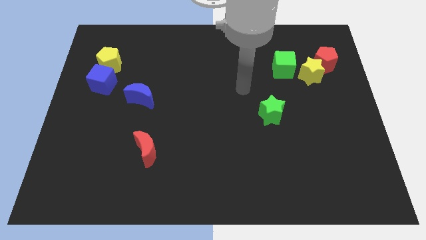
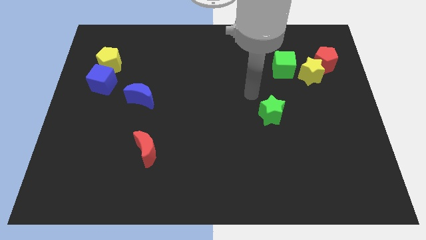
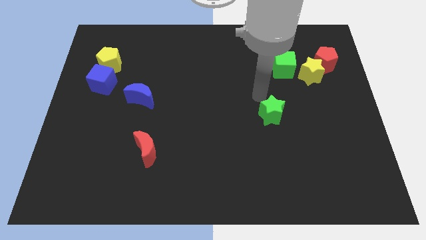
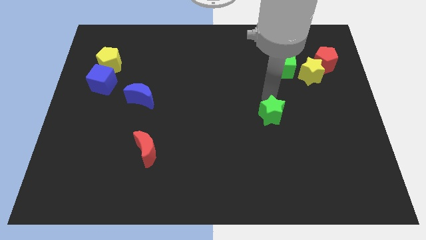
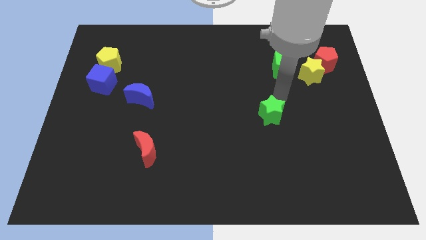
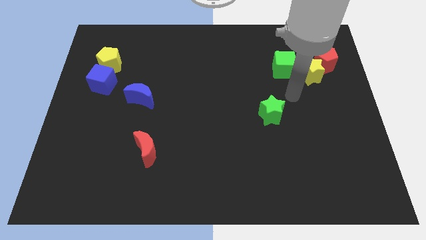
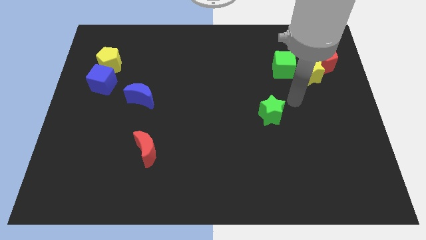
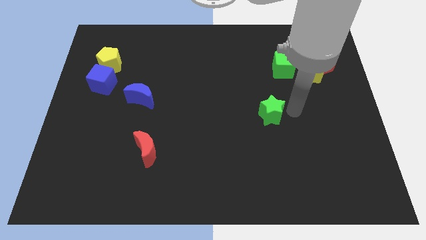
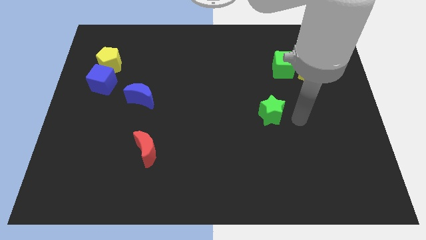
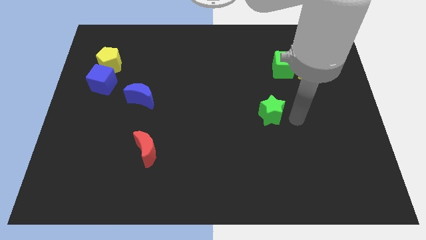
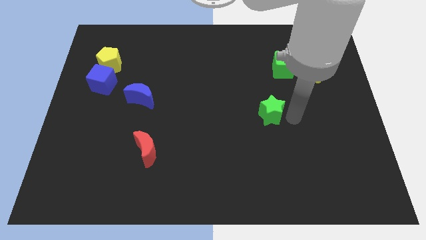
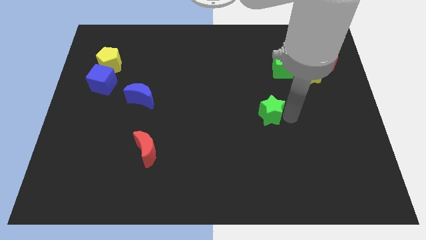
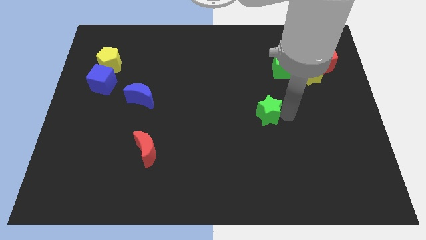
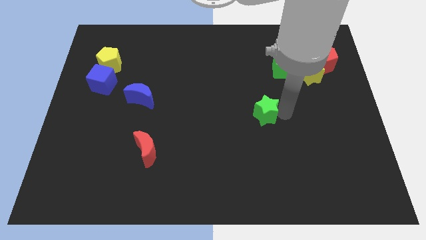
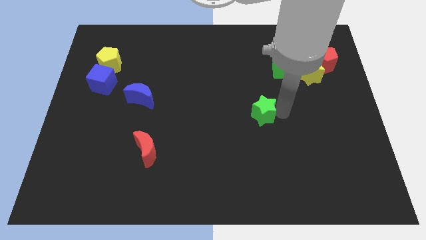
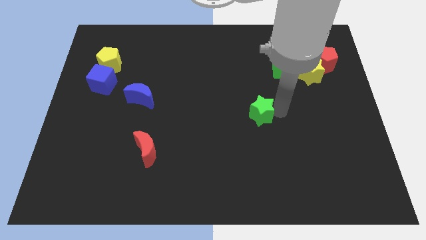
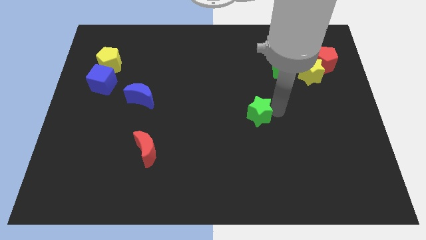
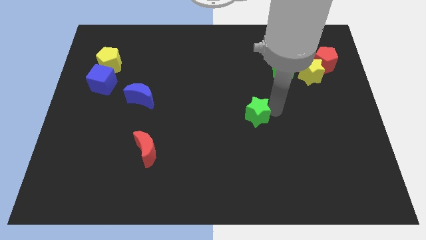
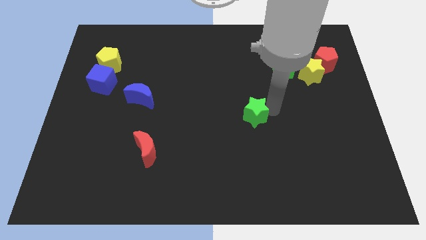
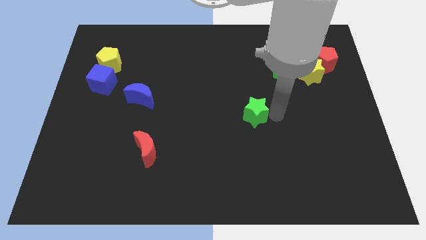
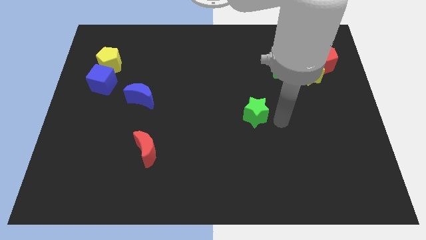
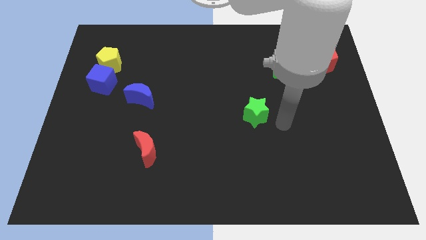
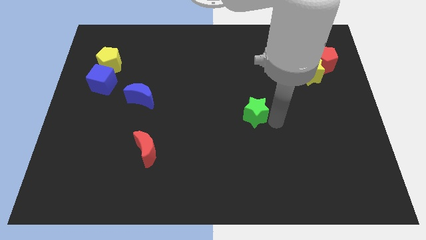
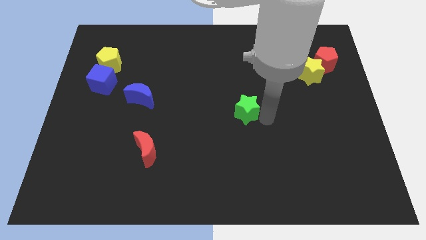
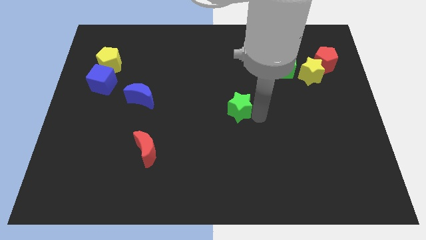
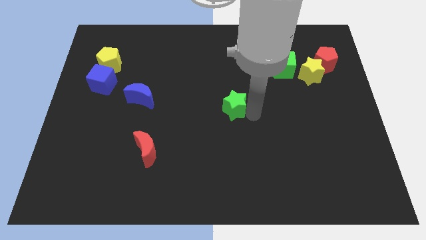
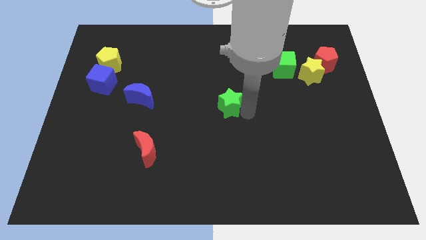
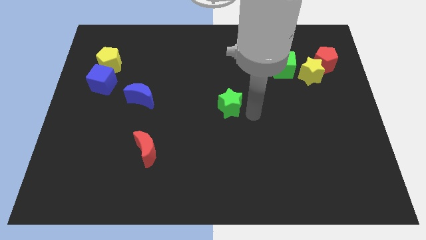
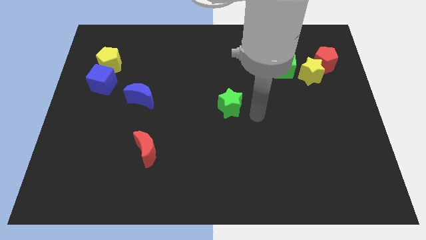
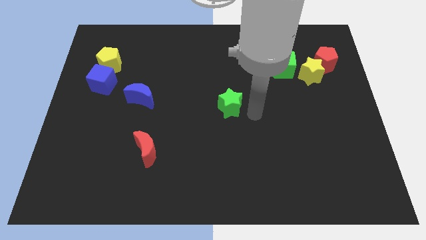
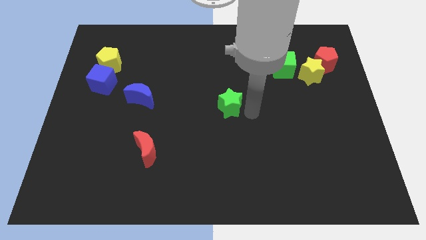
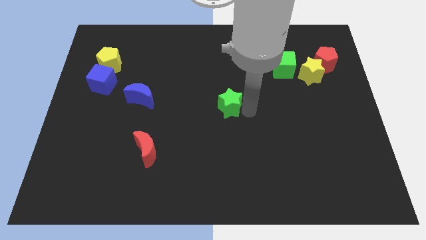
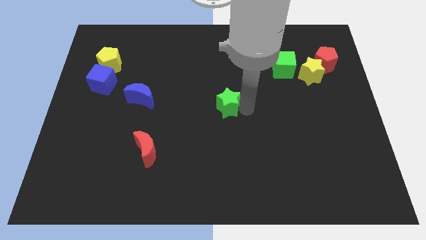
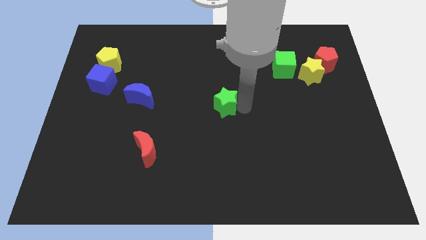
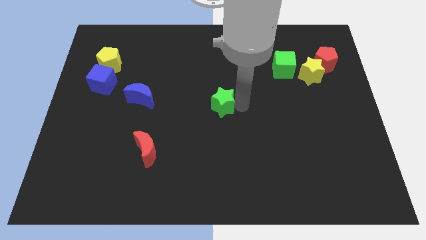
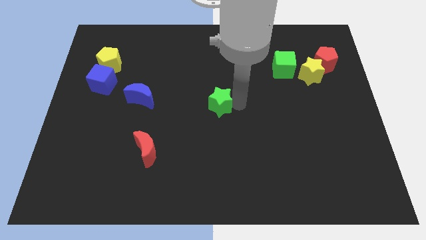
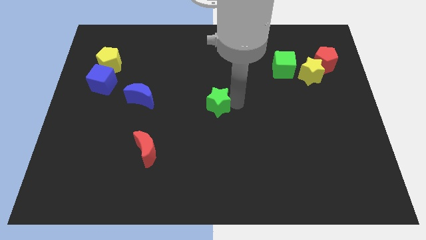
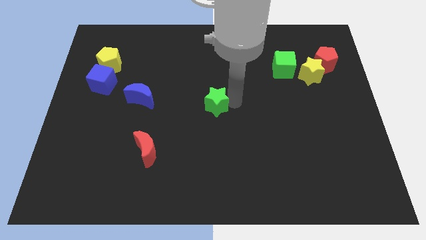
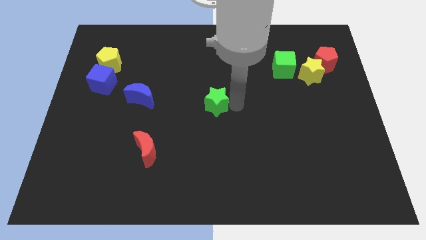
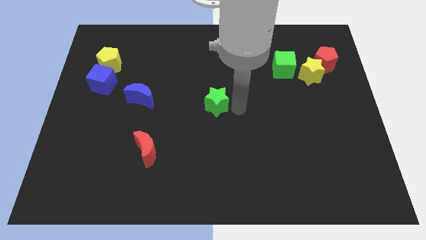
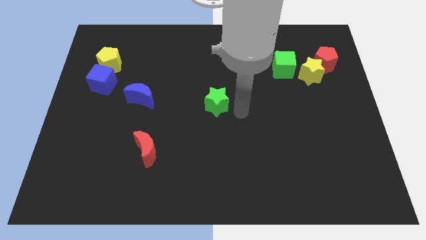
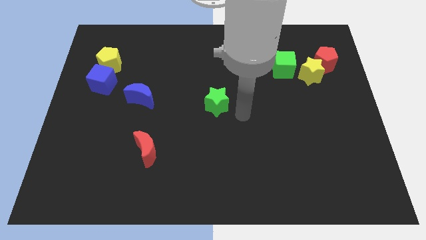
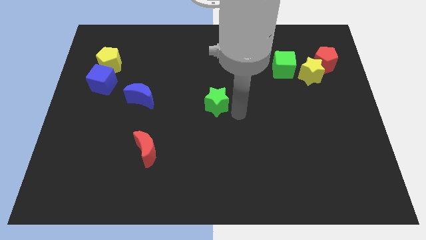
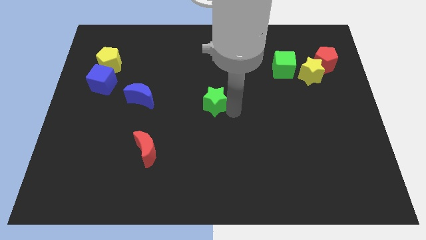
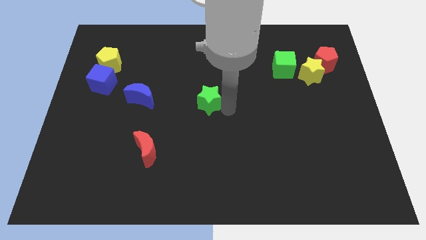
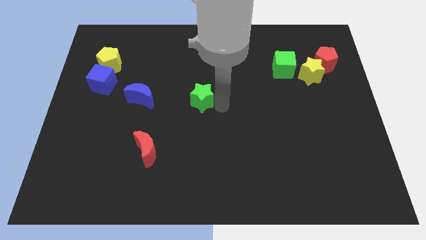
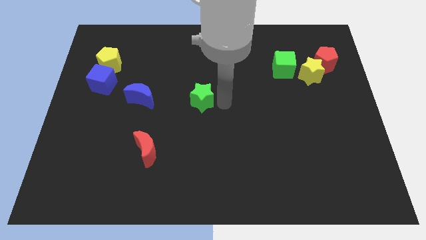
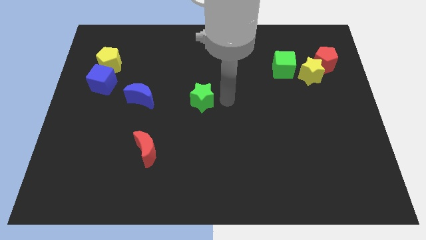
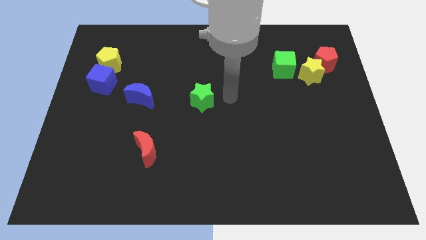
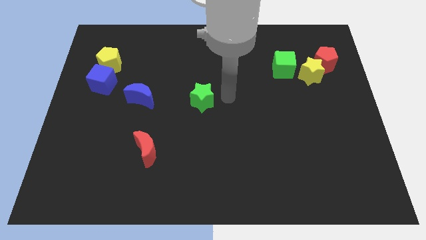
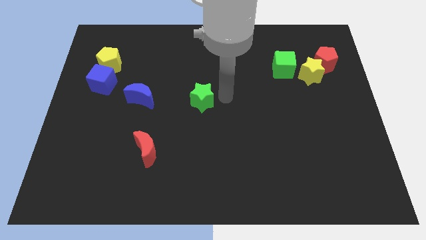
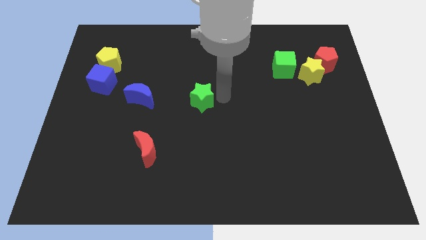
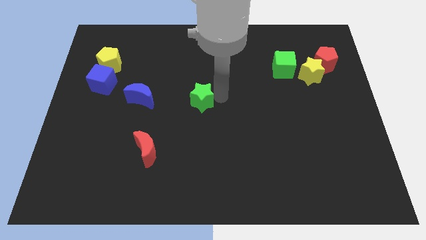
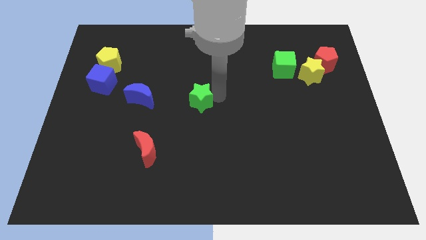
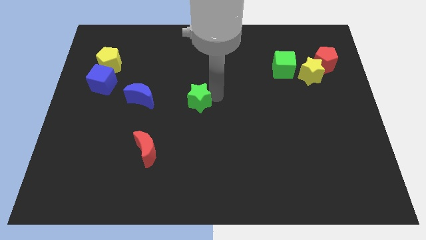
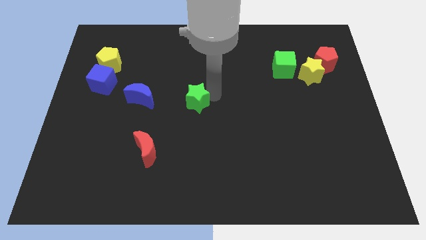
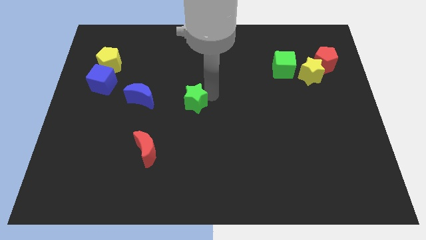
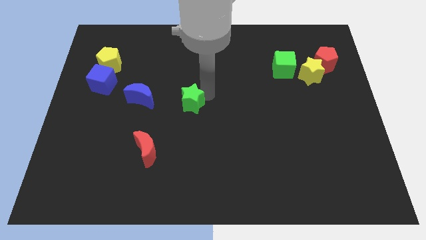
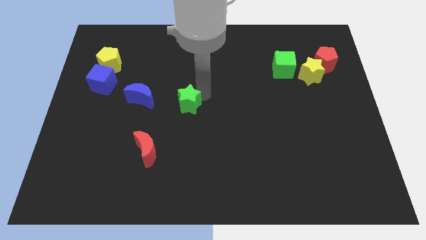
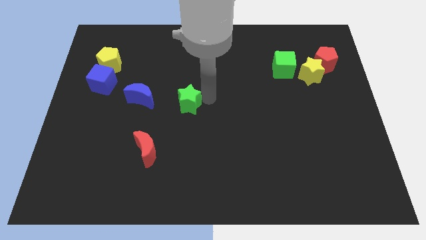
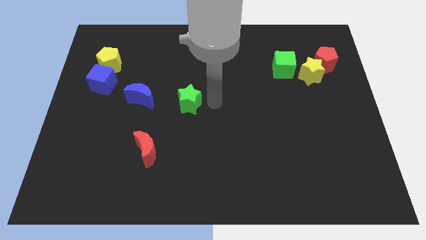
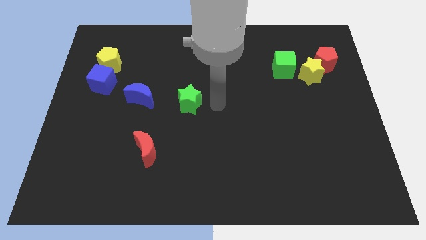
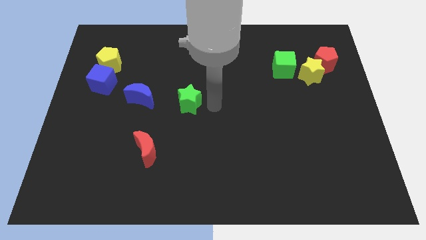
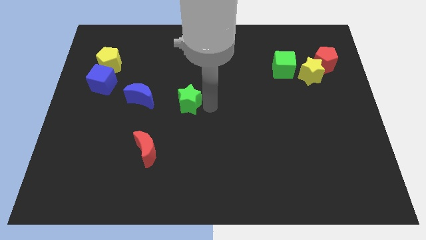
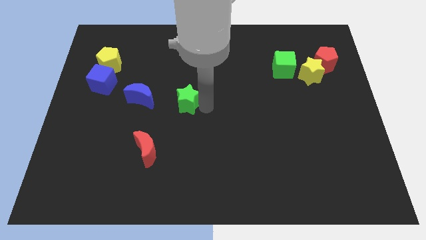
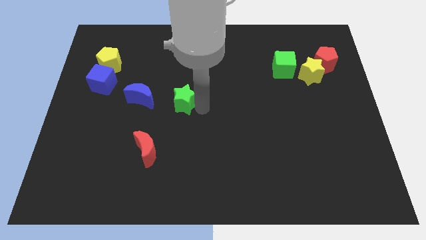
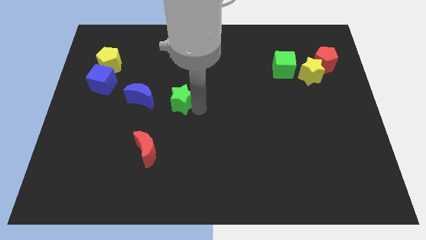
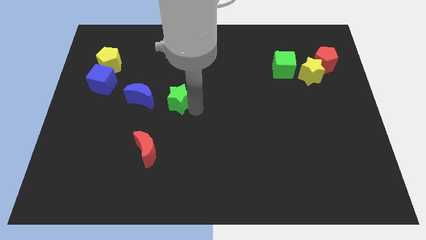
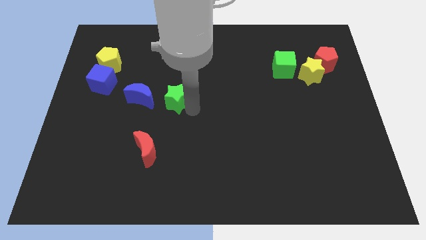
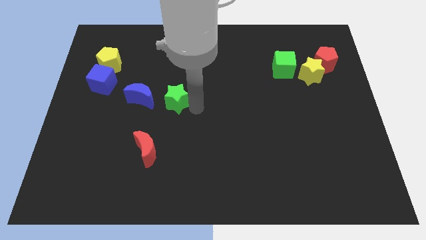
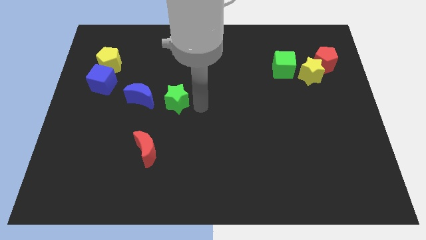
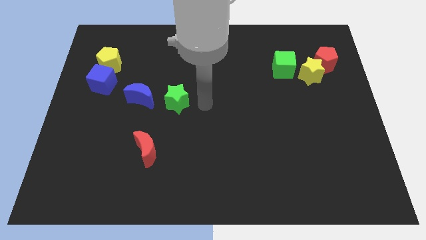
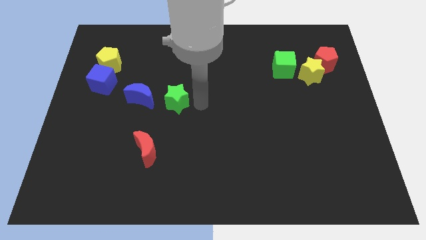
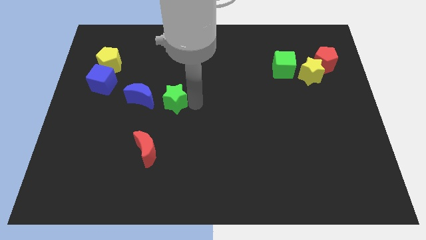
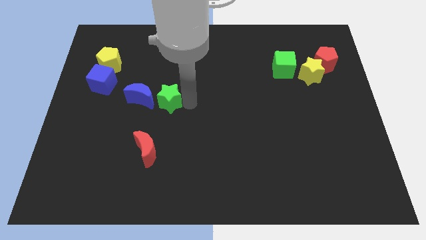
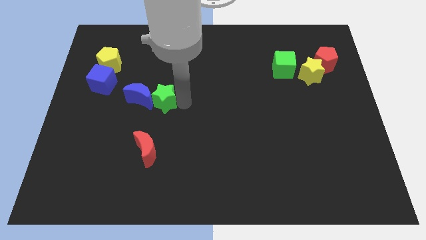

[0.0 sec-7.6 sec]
move the green star to the blue moon
